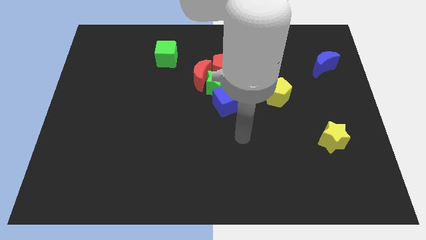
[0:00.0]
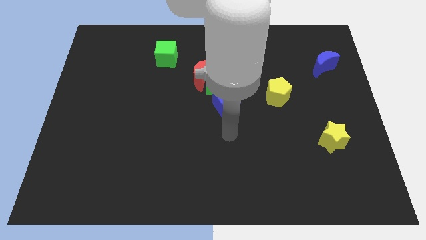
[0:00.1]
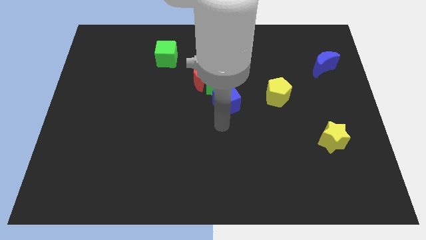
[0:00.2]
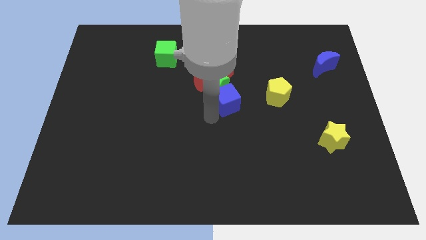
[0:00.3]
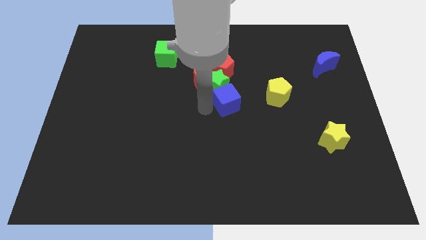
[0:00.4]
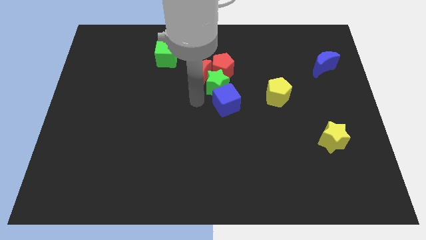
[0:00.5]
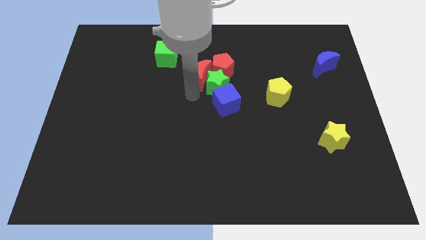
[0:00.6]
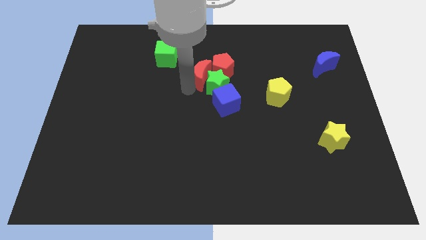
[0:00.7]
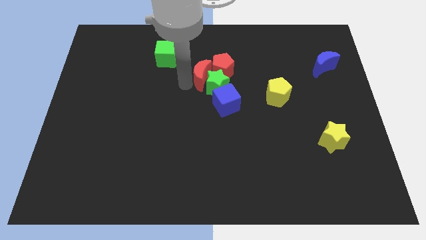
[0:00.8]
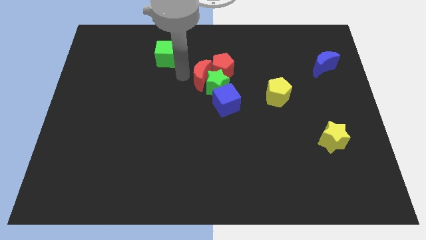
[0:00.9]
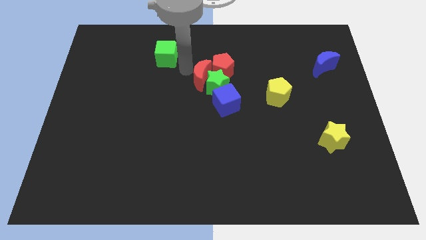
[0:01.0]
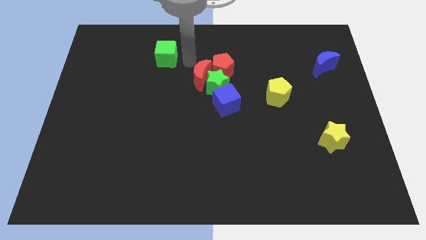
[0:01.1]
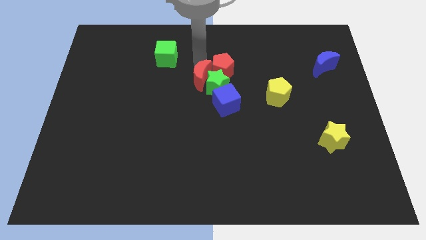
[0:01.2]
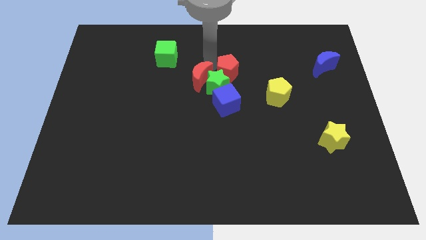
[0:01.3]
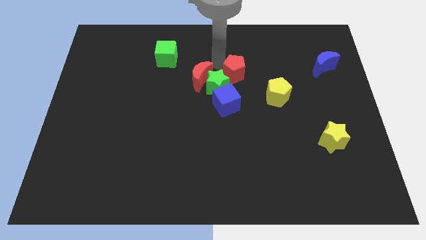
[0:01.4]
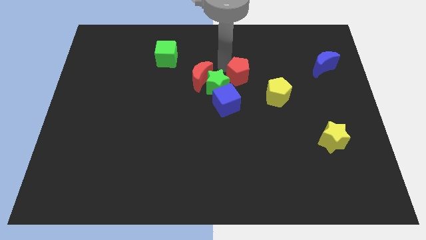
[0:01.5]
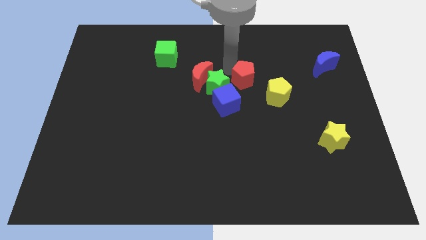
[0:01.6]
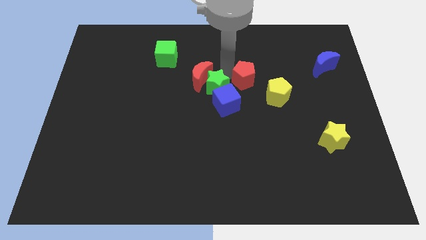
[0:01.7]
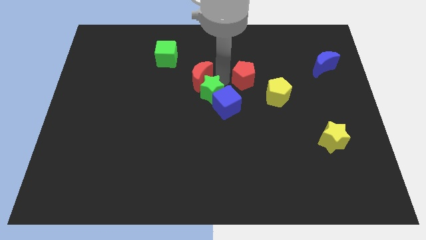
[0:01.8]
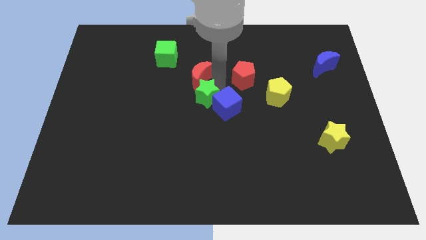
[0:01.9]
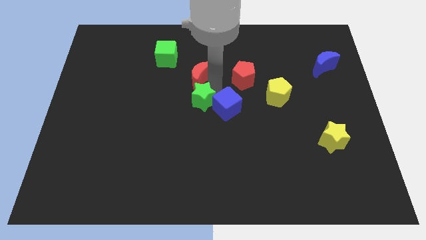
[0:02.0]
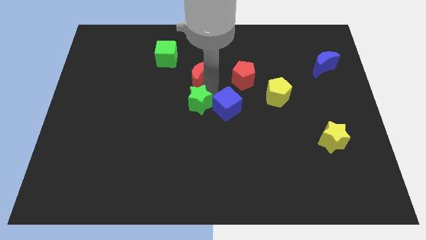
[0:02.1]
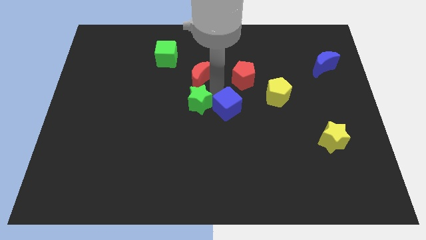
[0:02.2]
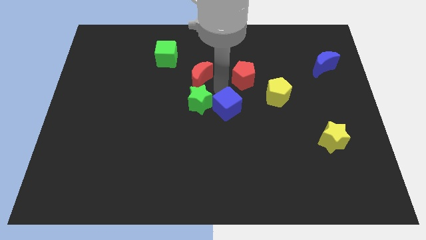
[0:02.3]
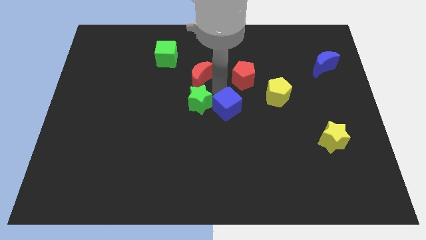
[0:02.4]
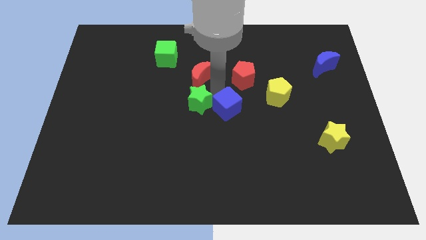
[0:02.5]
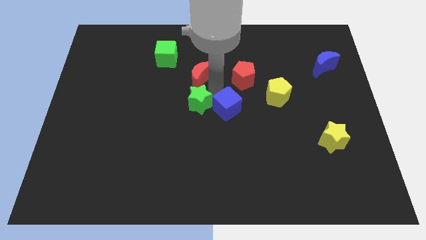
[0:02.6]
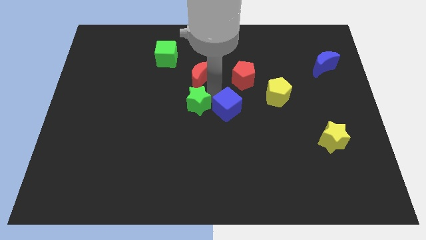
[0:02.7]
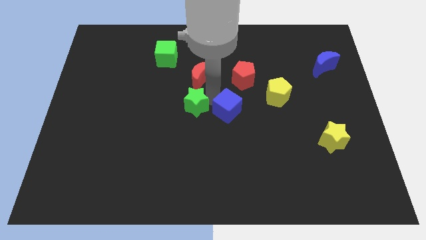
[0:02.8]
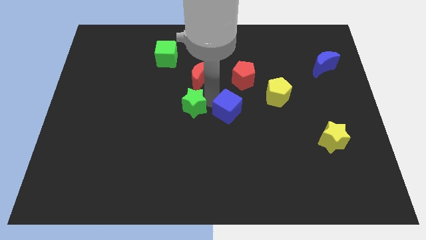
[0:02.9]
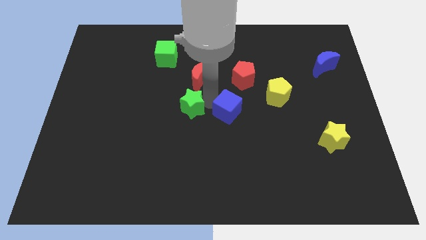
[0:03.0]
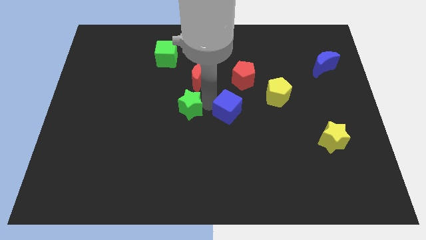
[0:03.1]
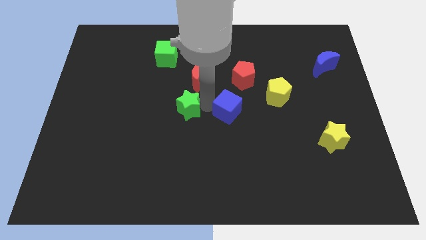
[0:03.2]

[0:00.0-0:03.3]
pull the green star apart from the red moon, red pentagon, and blue cube

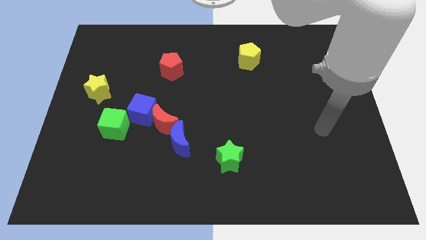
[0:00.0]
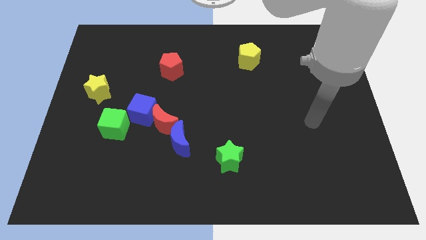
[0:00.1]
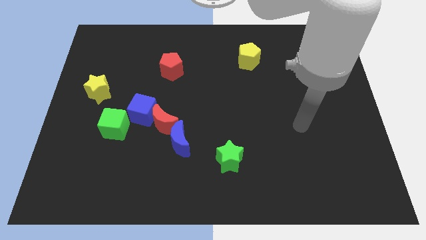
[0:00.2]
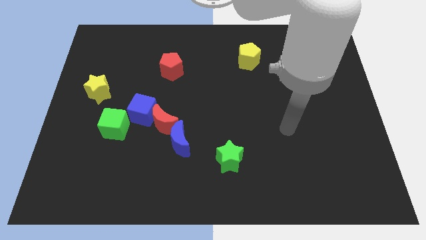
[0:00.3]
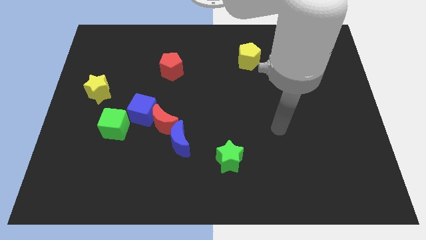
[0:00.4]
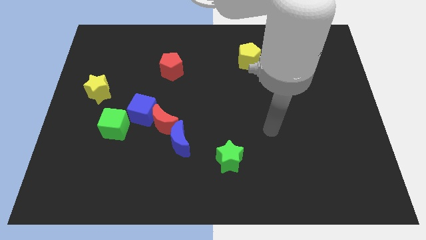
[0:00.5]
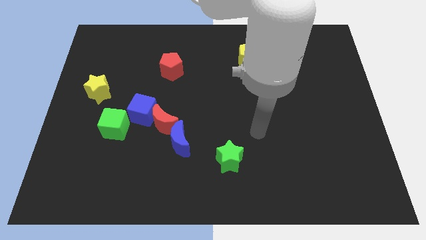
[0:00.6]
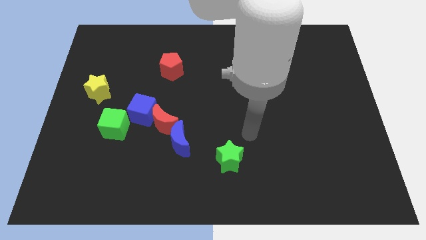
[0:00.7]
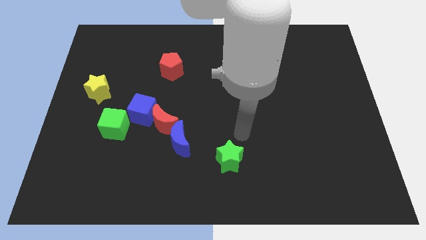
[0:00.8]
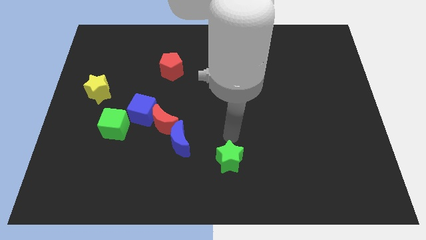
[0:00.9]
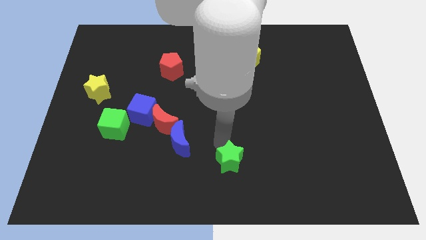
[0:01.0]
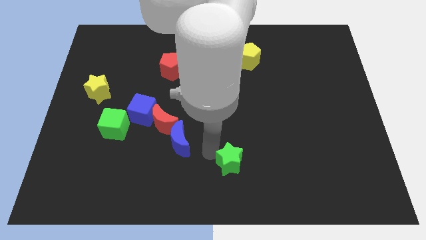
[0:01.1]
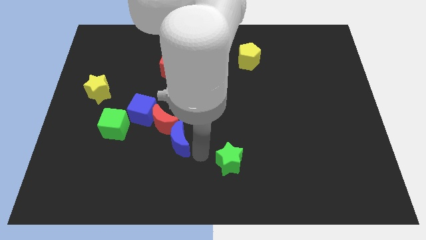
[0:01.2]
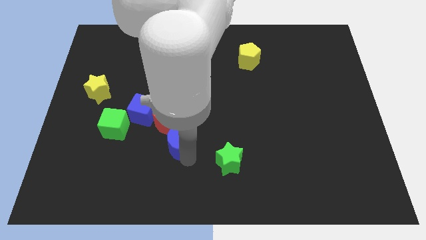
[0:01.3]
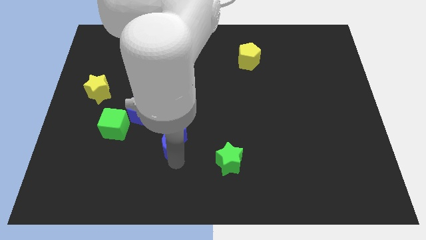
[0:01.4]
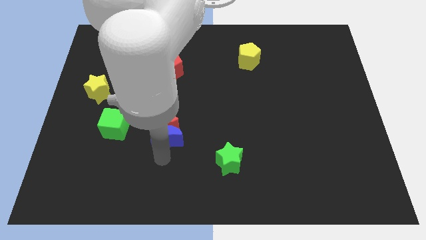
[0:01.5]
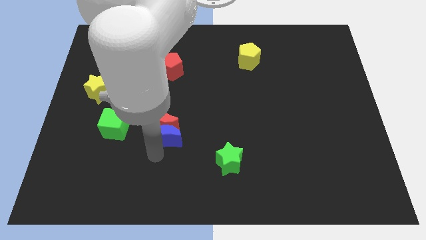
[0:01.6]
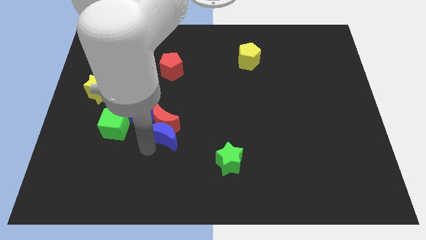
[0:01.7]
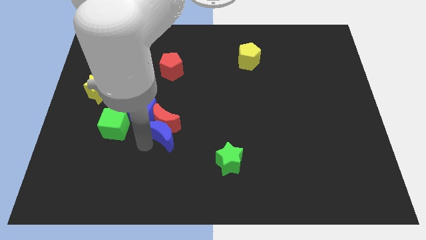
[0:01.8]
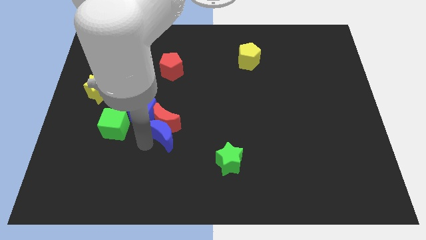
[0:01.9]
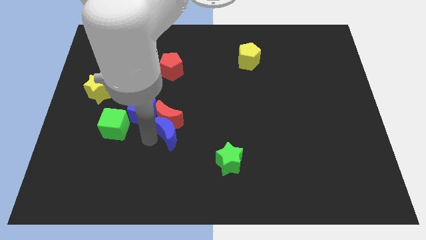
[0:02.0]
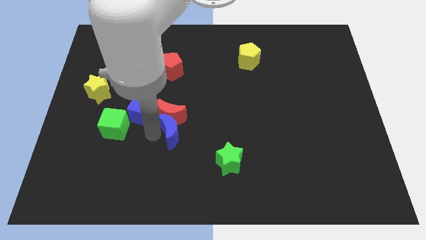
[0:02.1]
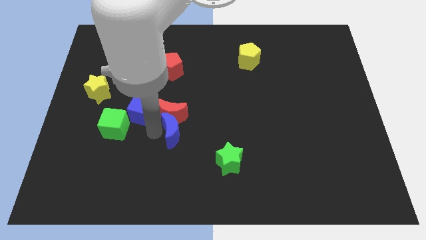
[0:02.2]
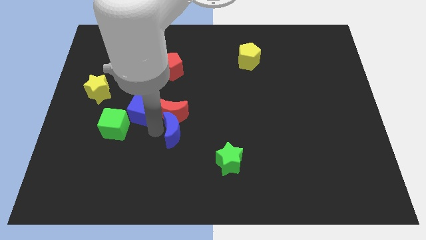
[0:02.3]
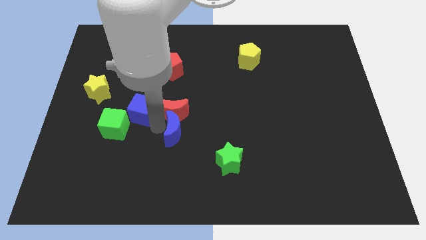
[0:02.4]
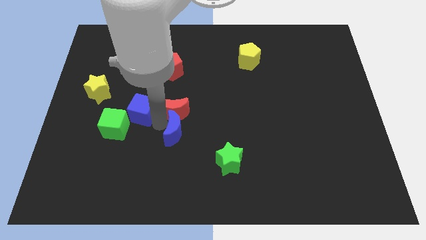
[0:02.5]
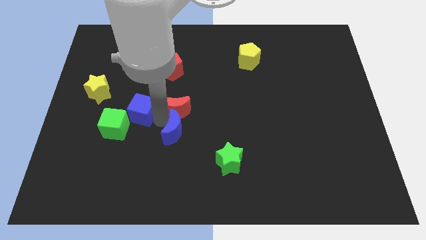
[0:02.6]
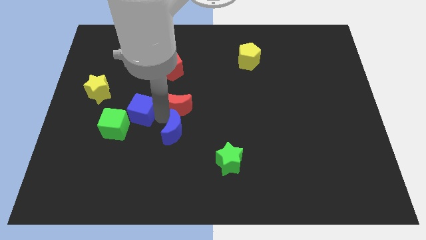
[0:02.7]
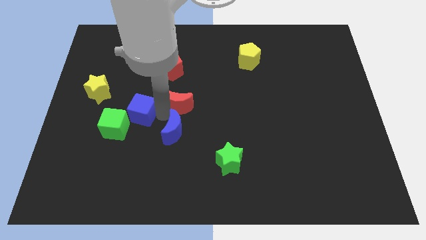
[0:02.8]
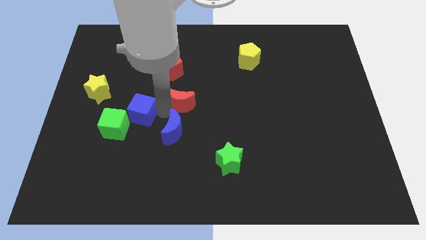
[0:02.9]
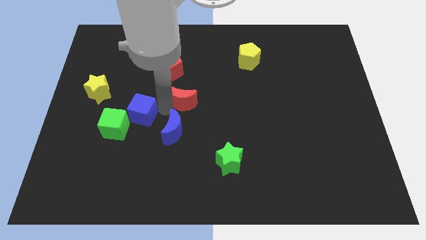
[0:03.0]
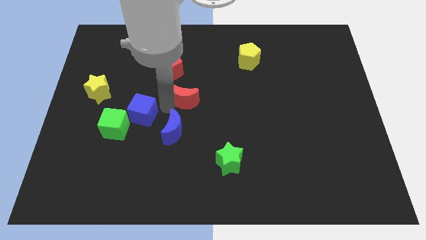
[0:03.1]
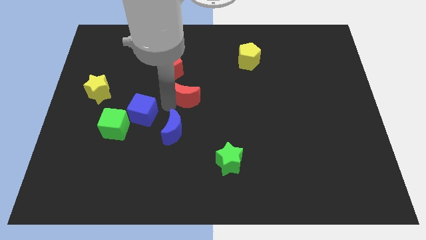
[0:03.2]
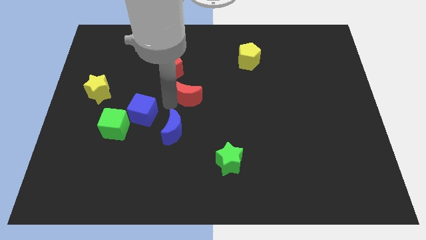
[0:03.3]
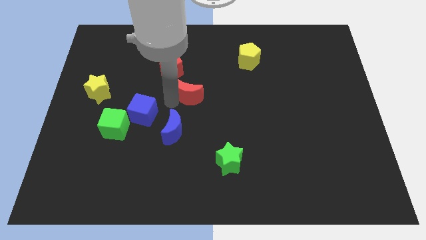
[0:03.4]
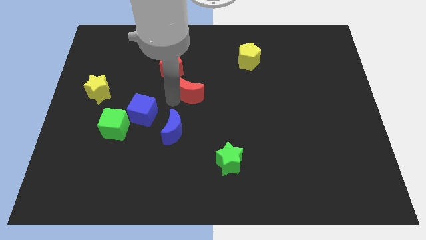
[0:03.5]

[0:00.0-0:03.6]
pull the red moon apart from the blue cube and blue moon

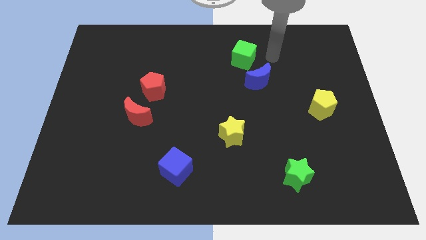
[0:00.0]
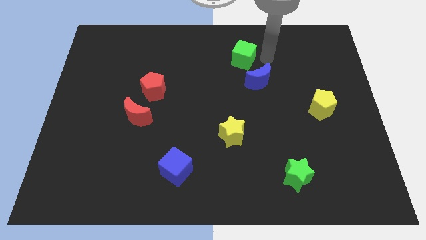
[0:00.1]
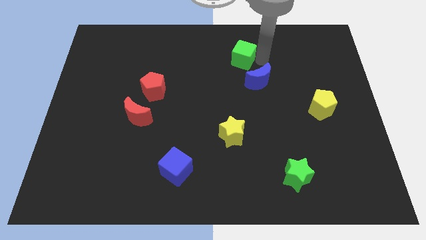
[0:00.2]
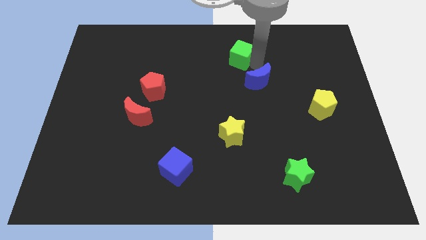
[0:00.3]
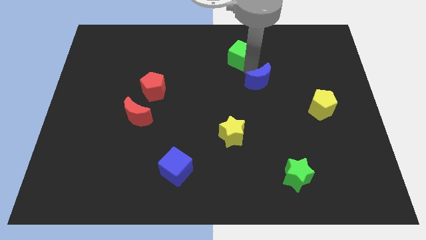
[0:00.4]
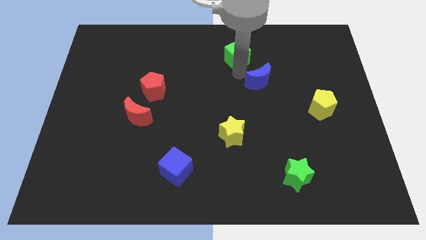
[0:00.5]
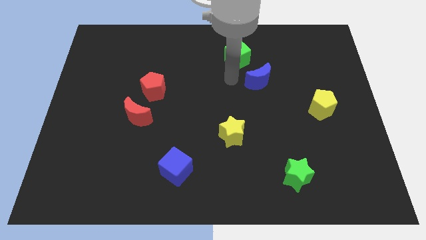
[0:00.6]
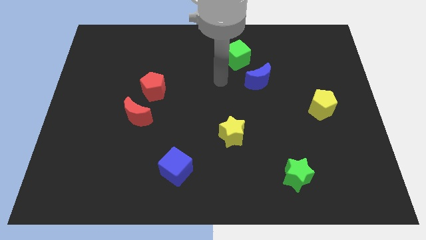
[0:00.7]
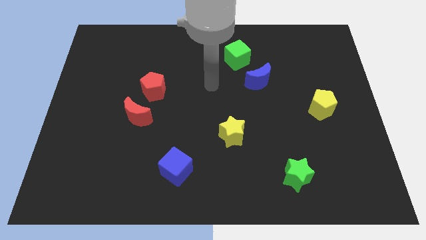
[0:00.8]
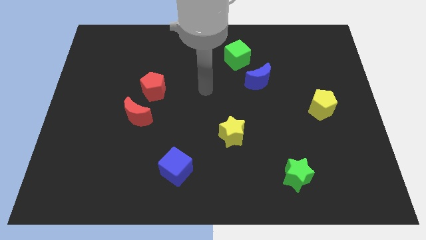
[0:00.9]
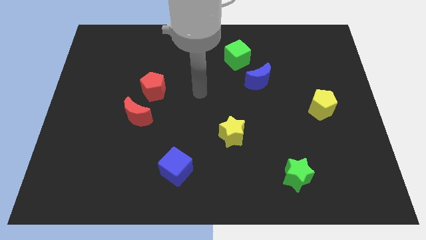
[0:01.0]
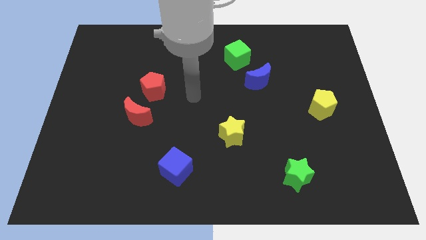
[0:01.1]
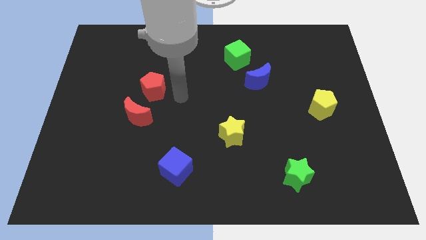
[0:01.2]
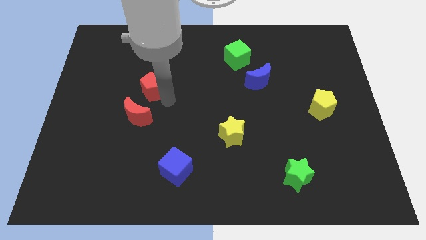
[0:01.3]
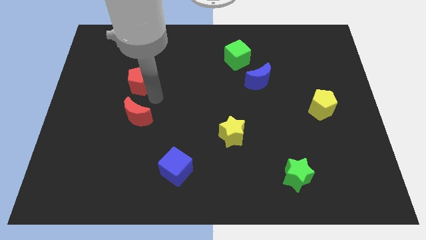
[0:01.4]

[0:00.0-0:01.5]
pull the red moon apart from the red pentagon

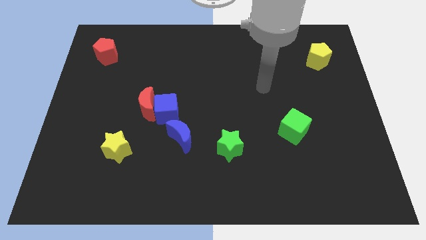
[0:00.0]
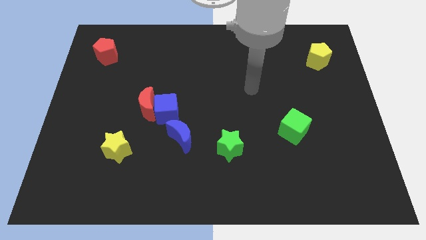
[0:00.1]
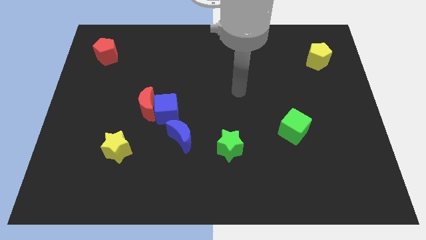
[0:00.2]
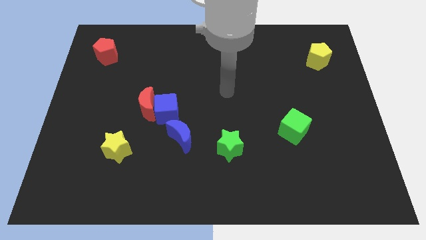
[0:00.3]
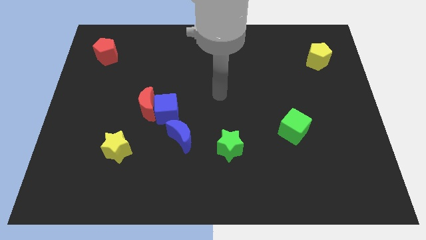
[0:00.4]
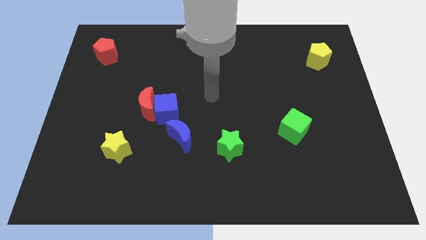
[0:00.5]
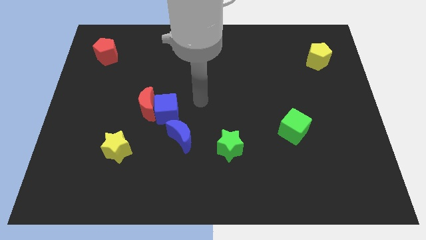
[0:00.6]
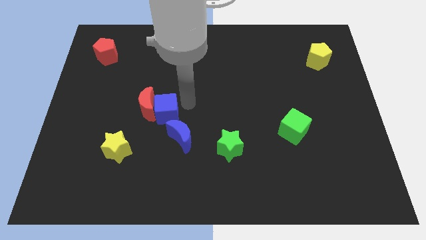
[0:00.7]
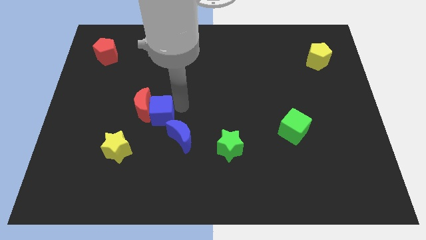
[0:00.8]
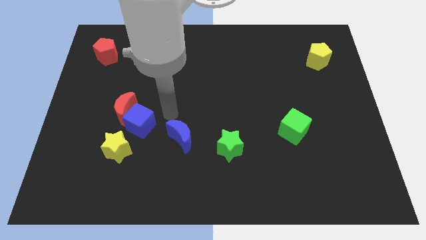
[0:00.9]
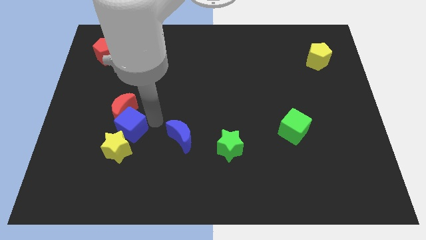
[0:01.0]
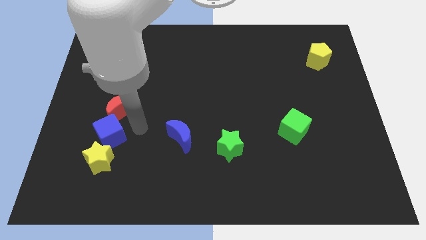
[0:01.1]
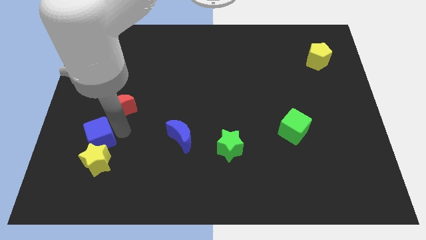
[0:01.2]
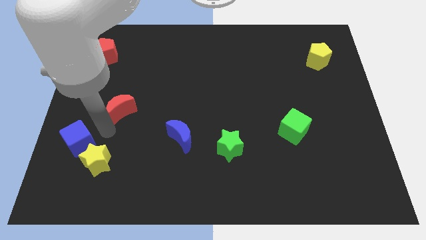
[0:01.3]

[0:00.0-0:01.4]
separate the red moon from the blue cube
